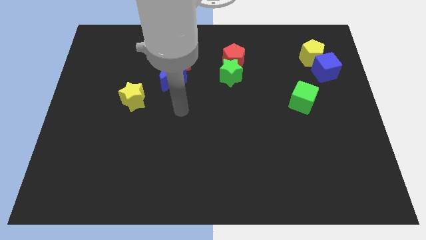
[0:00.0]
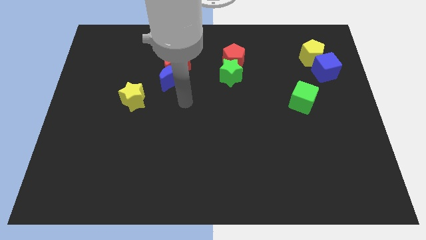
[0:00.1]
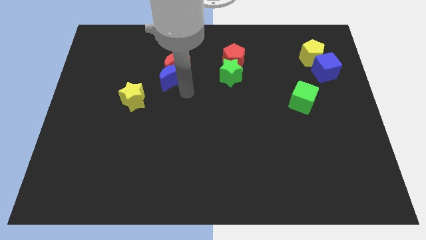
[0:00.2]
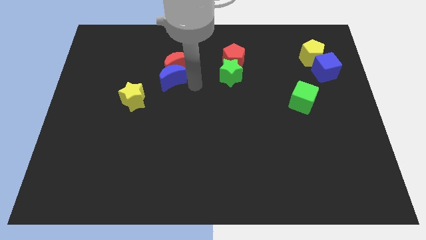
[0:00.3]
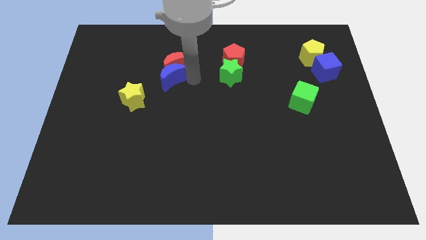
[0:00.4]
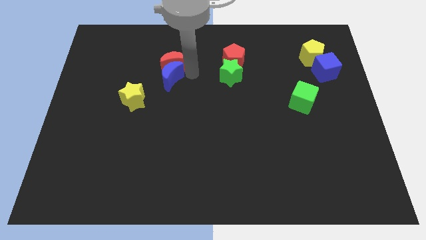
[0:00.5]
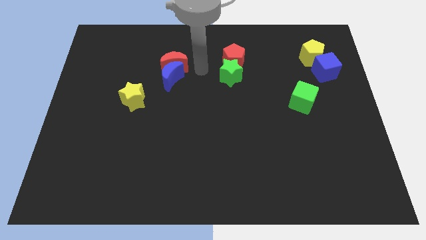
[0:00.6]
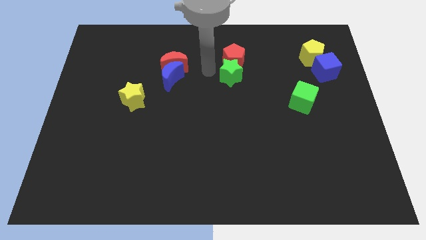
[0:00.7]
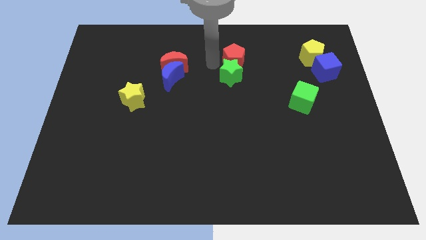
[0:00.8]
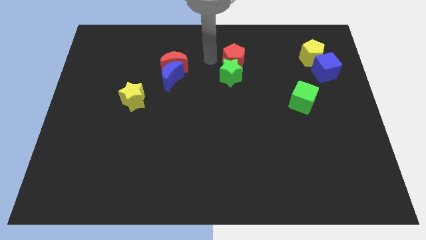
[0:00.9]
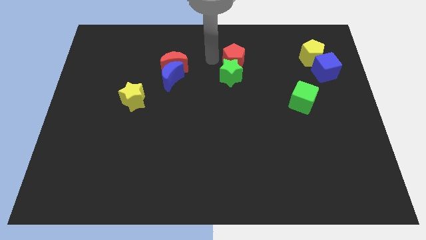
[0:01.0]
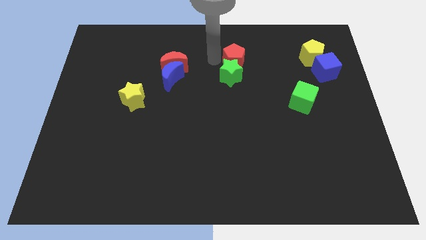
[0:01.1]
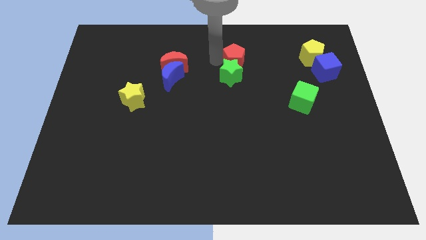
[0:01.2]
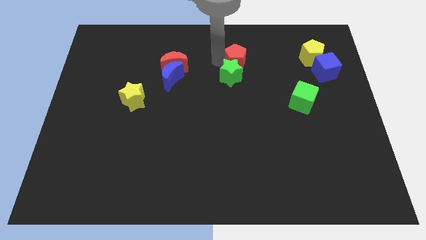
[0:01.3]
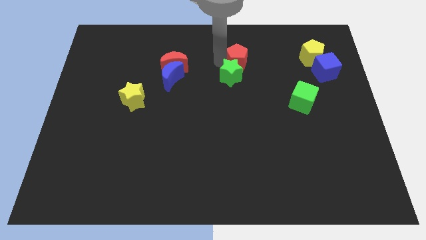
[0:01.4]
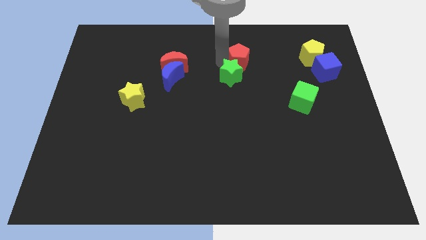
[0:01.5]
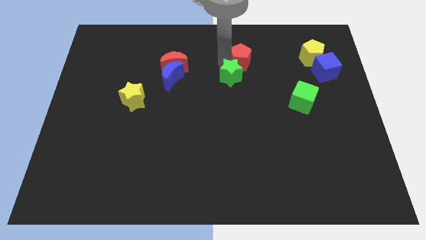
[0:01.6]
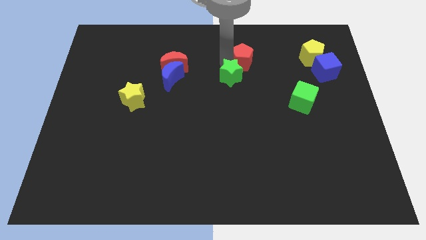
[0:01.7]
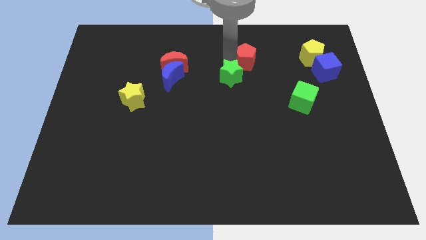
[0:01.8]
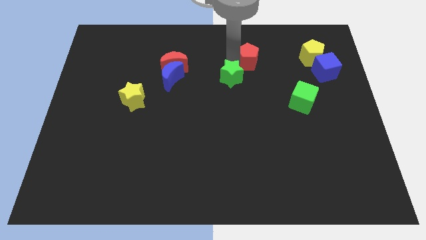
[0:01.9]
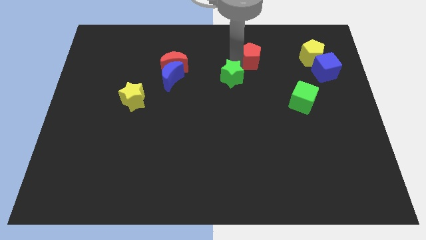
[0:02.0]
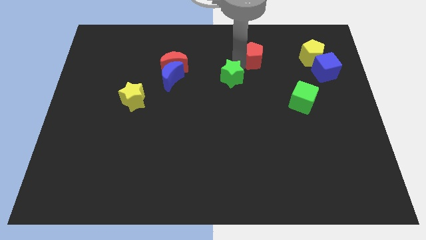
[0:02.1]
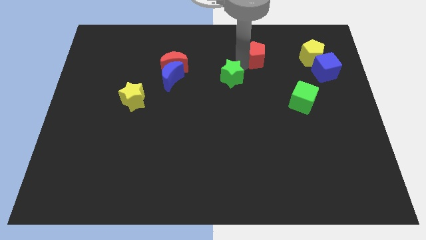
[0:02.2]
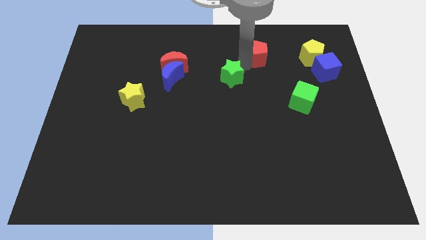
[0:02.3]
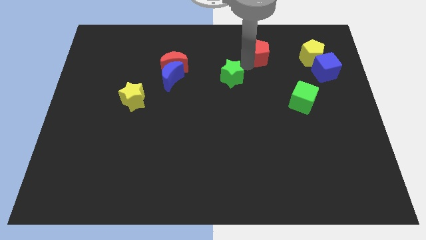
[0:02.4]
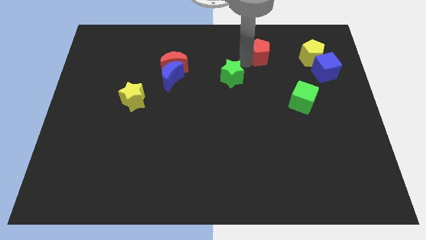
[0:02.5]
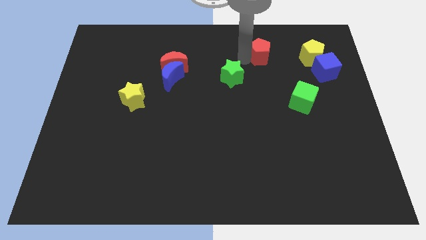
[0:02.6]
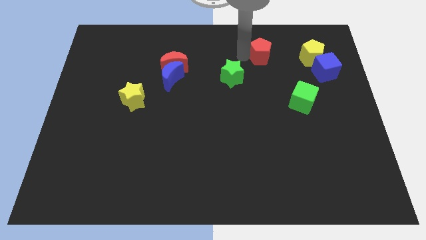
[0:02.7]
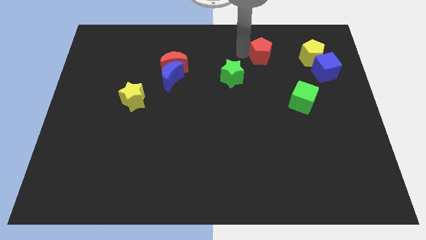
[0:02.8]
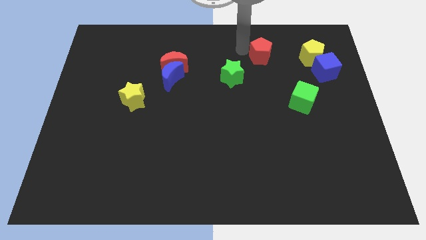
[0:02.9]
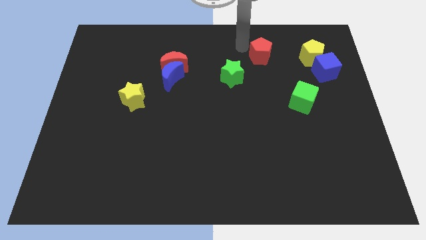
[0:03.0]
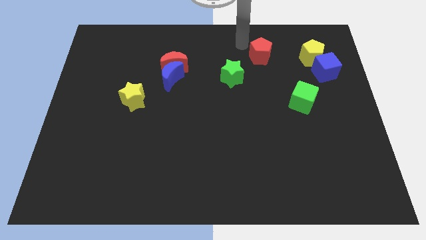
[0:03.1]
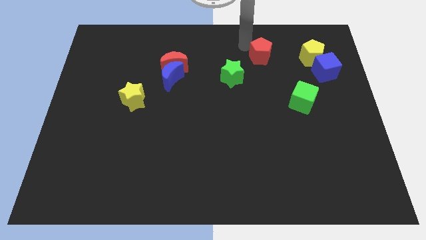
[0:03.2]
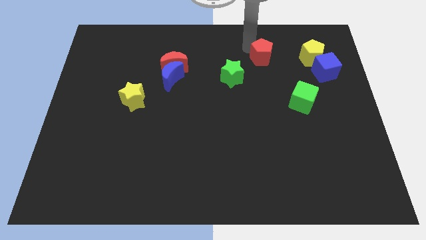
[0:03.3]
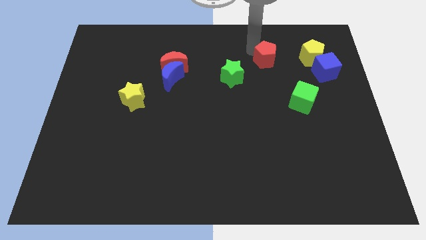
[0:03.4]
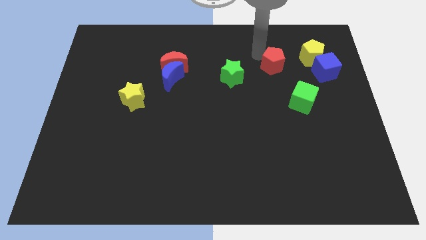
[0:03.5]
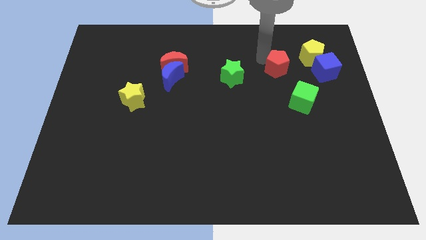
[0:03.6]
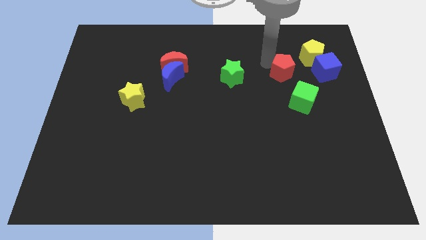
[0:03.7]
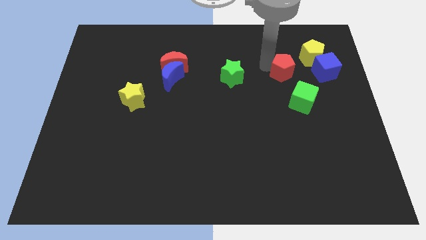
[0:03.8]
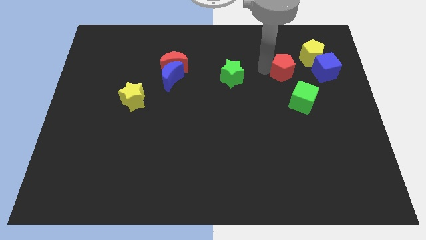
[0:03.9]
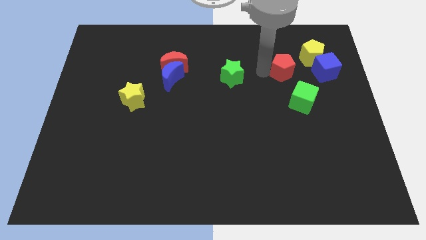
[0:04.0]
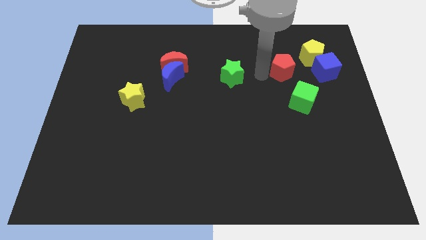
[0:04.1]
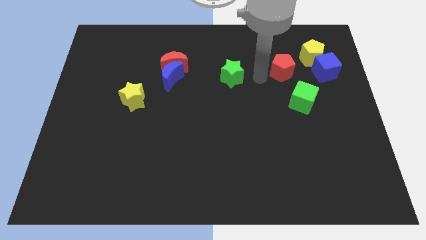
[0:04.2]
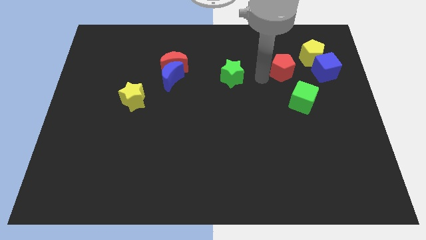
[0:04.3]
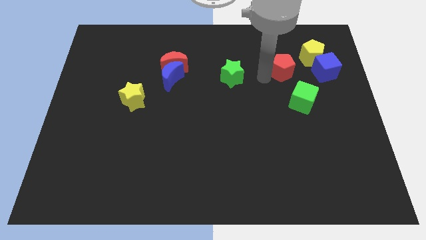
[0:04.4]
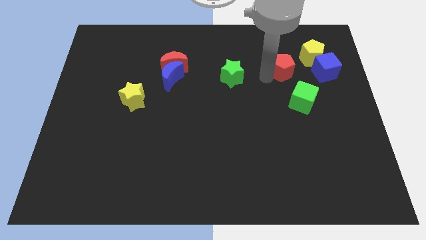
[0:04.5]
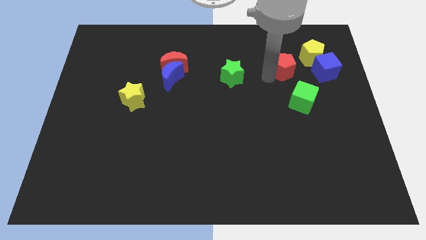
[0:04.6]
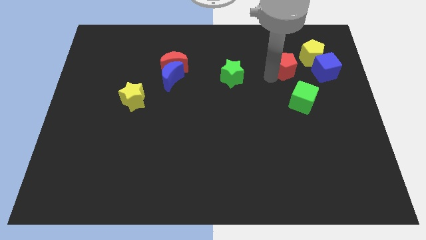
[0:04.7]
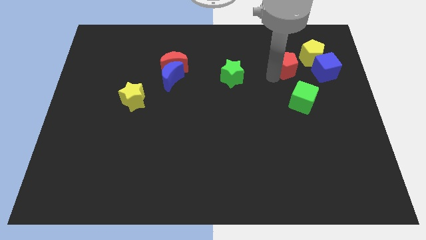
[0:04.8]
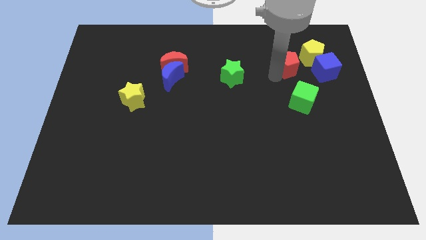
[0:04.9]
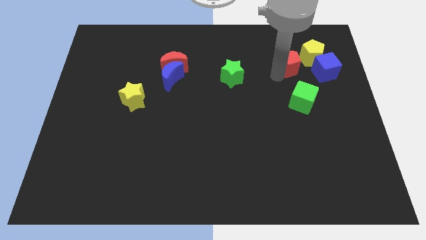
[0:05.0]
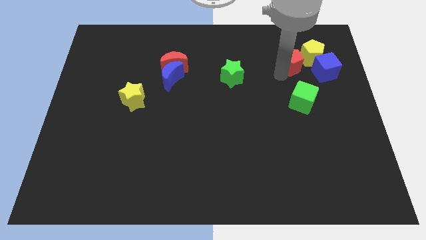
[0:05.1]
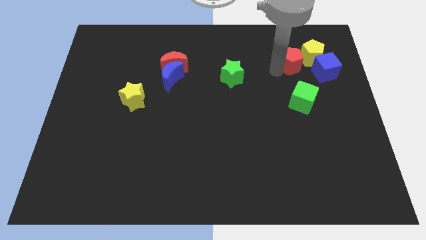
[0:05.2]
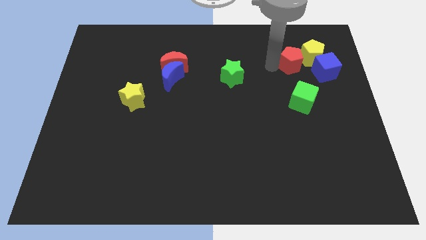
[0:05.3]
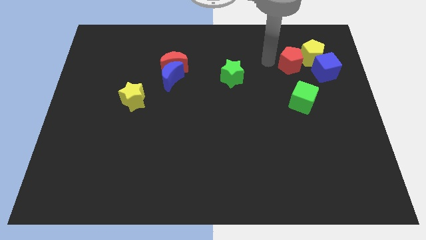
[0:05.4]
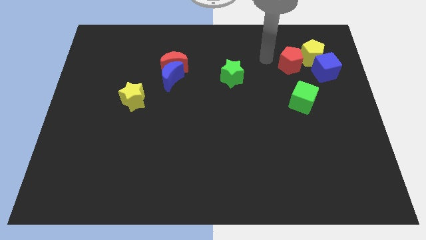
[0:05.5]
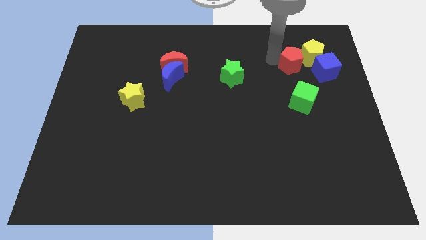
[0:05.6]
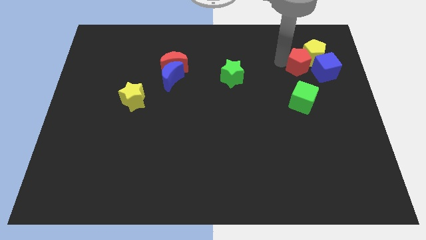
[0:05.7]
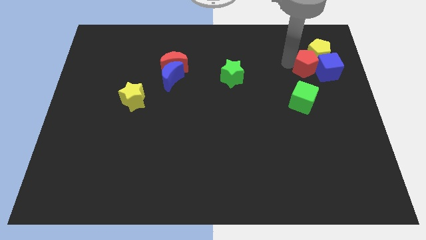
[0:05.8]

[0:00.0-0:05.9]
slide the red pentagon towards the blue cube

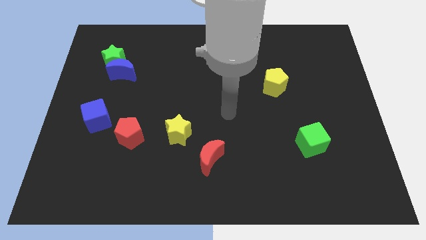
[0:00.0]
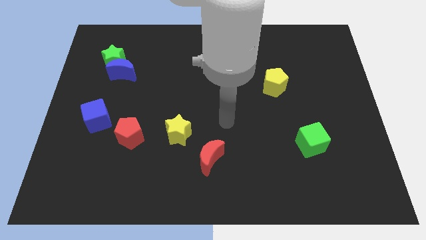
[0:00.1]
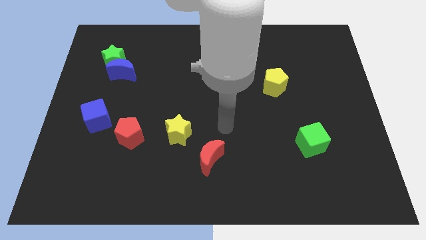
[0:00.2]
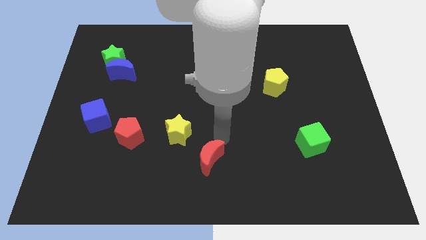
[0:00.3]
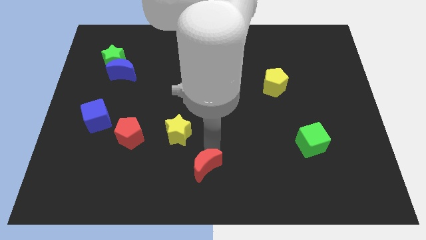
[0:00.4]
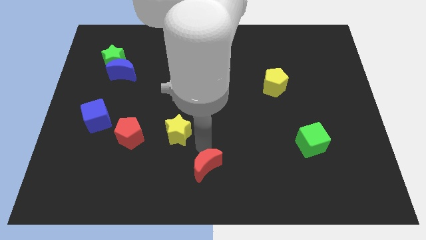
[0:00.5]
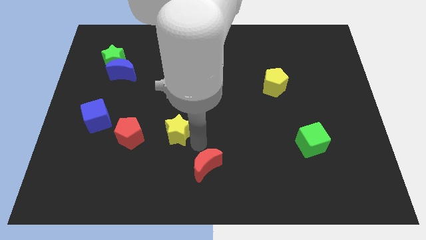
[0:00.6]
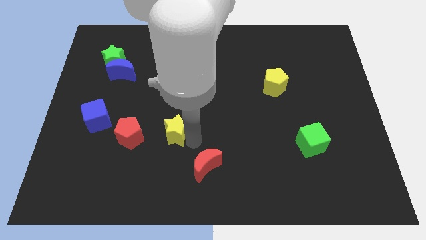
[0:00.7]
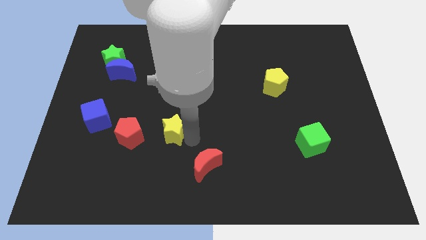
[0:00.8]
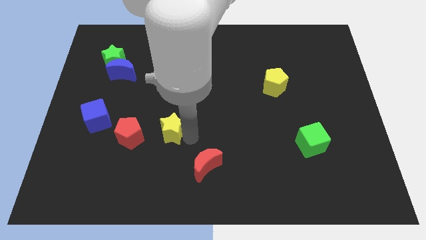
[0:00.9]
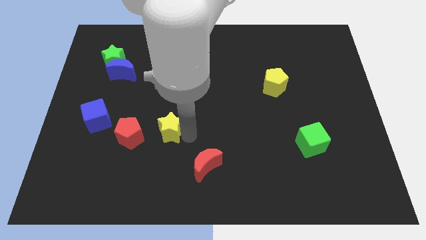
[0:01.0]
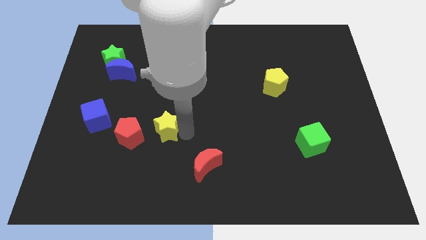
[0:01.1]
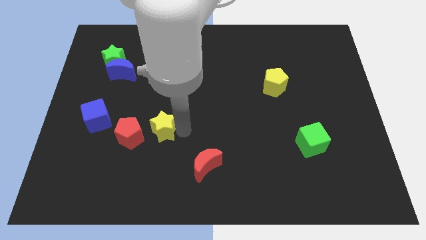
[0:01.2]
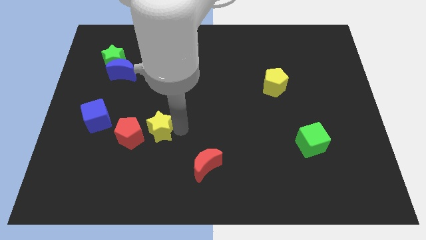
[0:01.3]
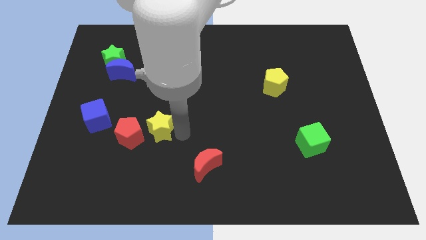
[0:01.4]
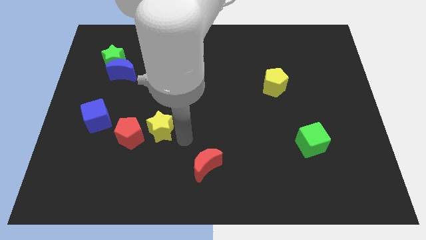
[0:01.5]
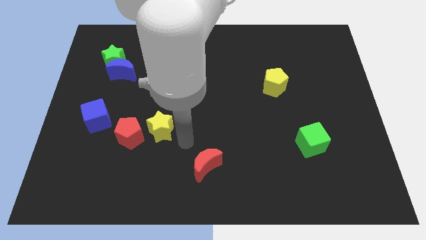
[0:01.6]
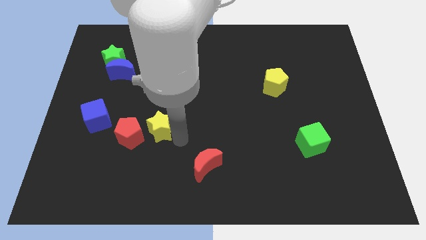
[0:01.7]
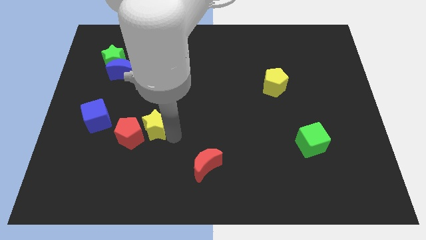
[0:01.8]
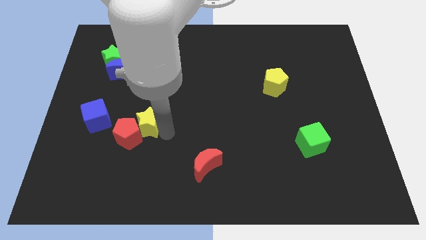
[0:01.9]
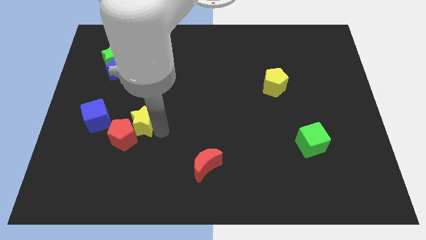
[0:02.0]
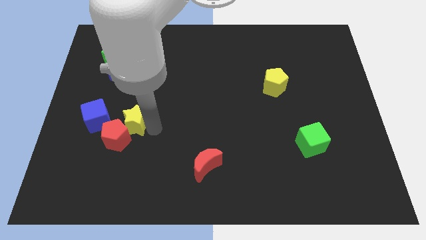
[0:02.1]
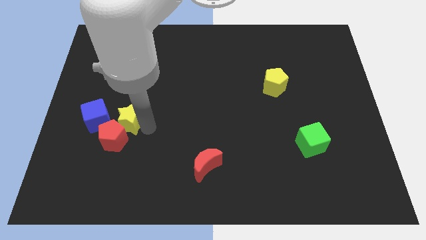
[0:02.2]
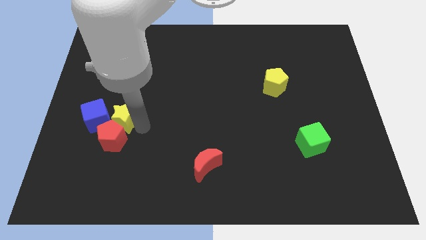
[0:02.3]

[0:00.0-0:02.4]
push the yellow star next to the blue cube
